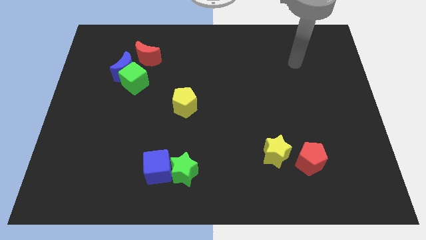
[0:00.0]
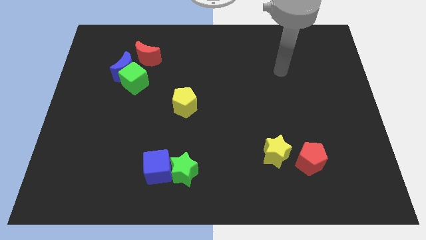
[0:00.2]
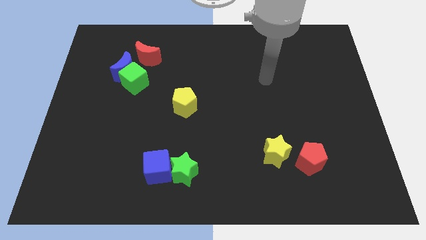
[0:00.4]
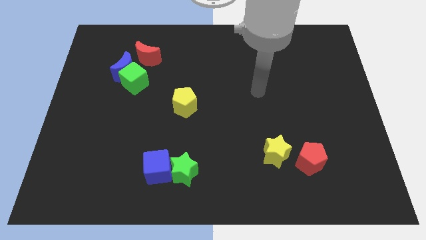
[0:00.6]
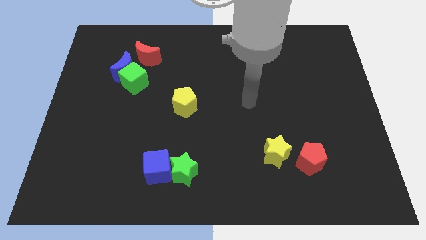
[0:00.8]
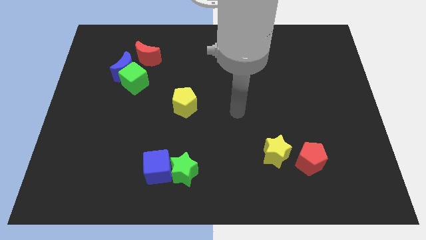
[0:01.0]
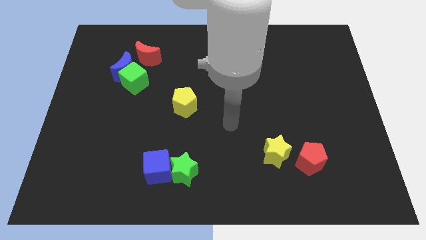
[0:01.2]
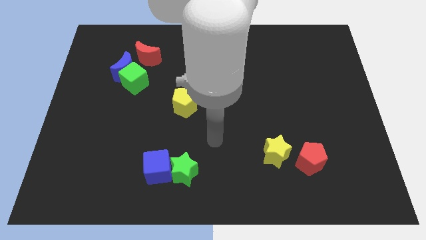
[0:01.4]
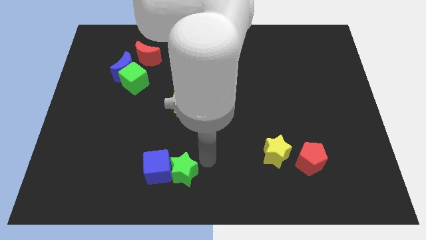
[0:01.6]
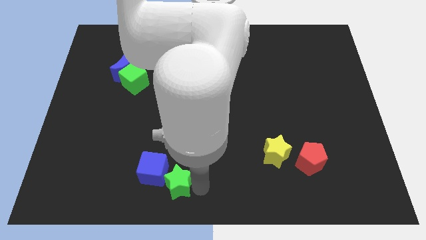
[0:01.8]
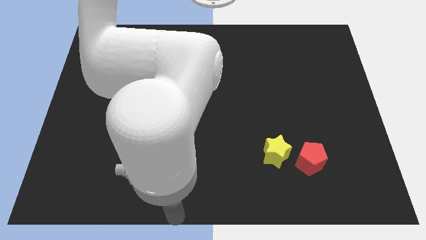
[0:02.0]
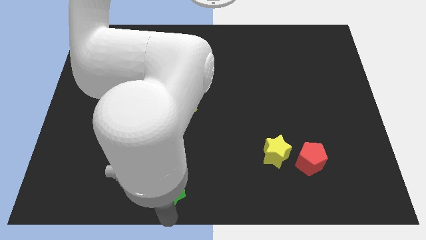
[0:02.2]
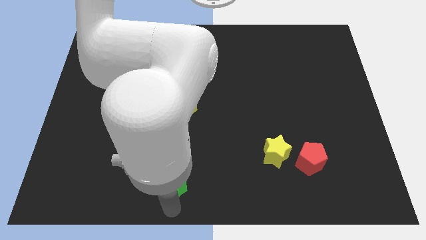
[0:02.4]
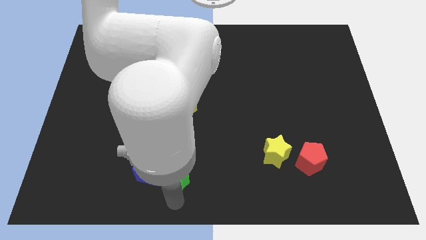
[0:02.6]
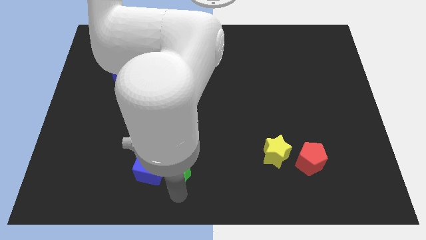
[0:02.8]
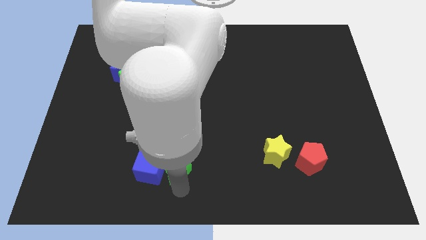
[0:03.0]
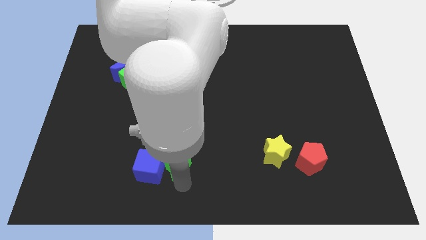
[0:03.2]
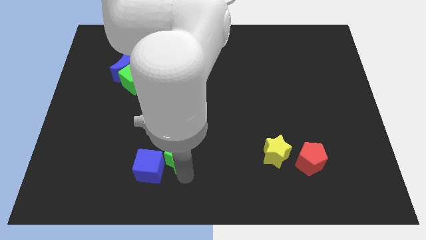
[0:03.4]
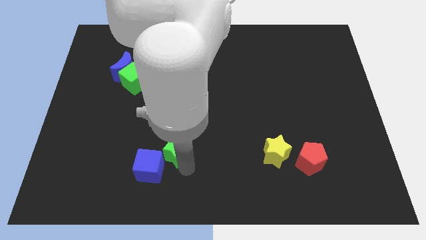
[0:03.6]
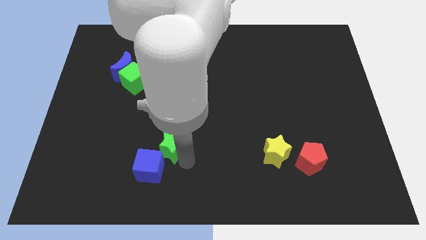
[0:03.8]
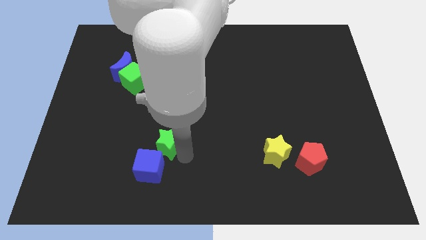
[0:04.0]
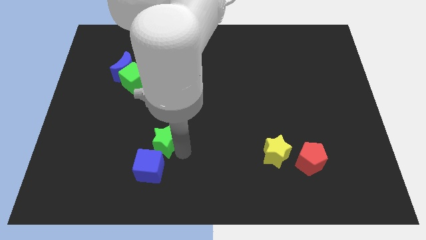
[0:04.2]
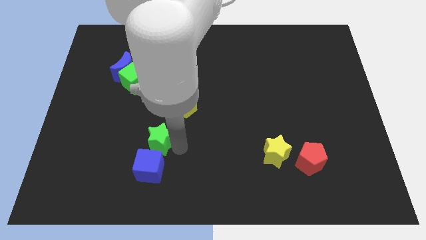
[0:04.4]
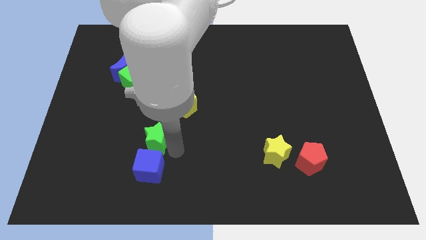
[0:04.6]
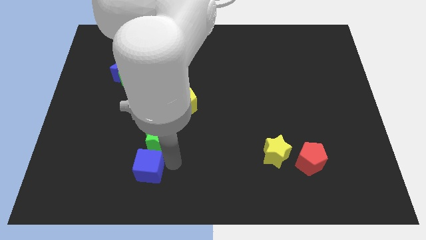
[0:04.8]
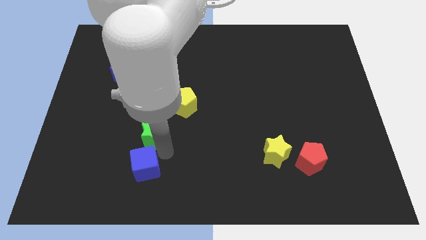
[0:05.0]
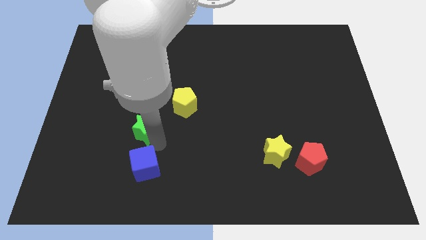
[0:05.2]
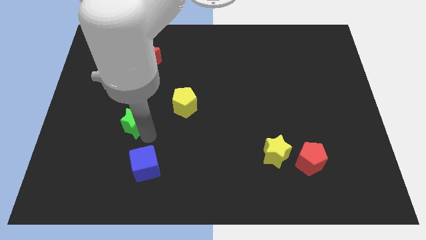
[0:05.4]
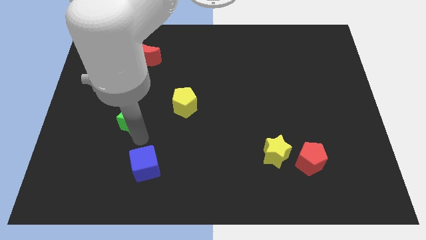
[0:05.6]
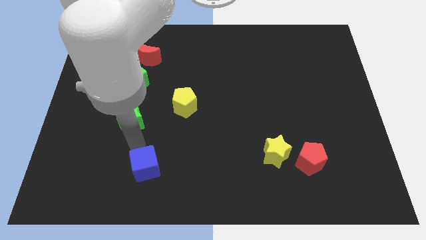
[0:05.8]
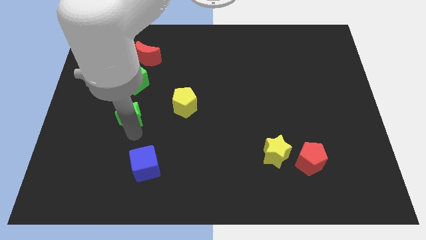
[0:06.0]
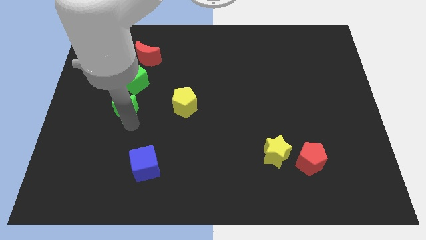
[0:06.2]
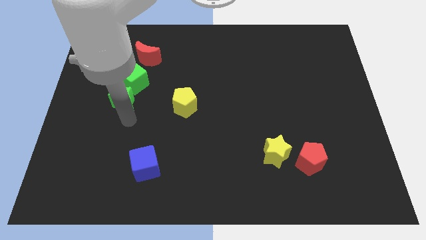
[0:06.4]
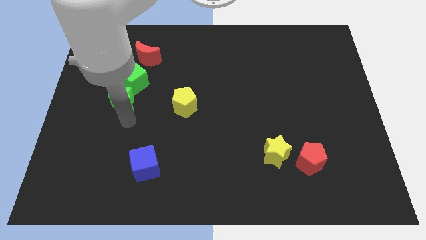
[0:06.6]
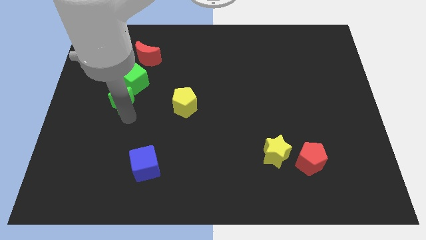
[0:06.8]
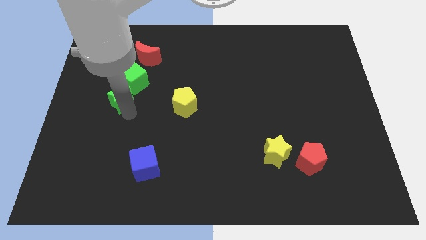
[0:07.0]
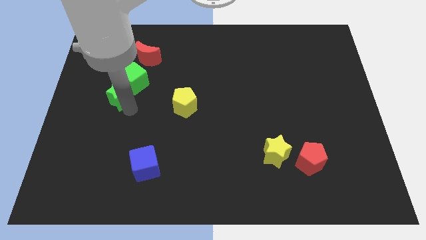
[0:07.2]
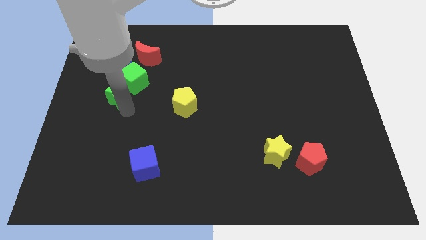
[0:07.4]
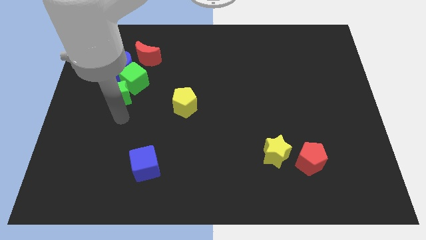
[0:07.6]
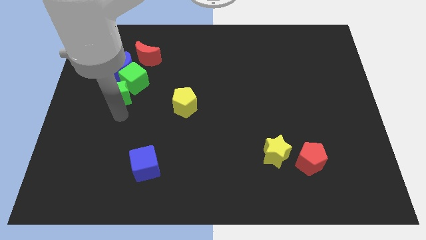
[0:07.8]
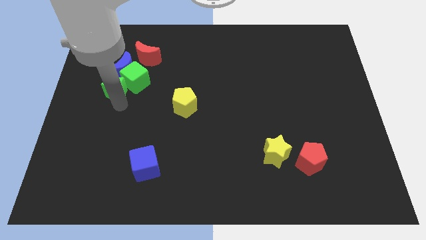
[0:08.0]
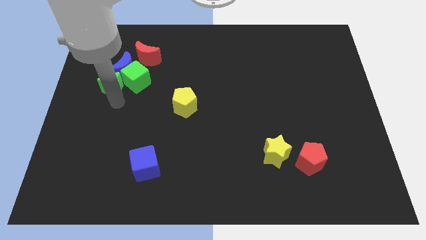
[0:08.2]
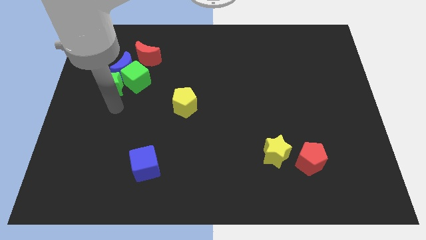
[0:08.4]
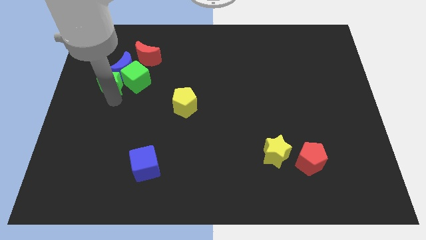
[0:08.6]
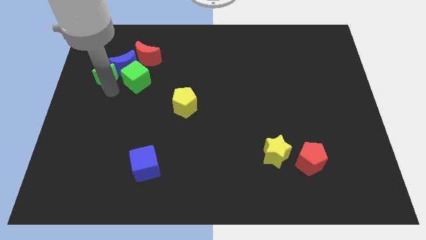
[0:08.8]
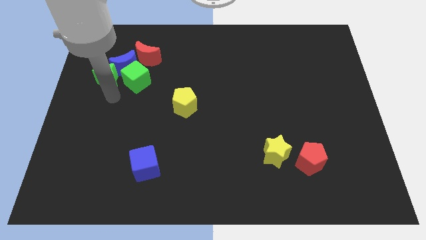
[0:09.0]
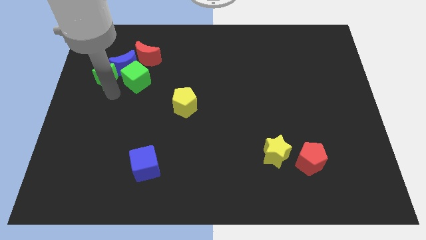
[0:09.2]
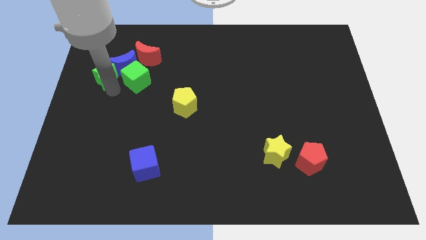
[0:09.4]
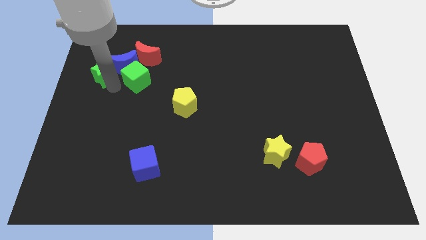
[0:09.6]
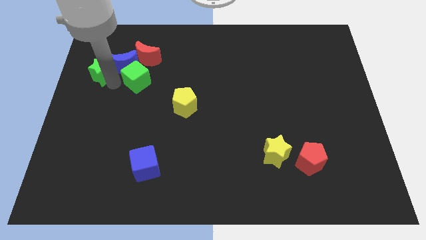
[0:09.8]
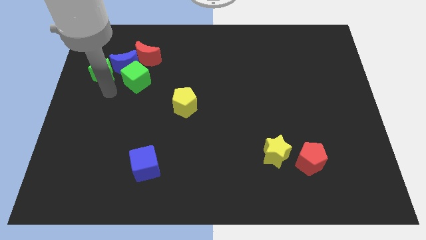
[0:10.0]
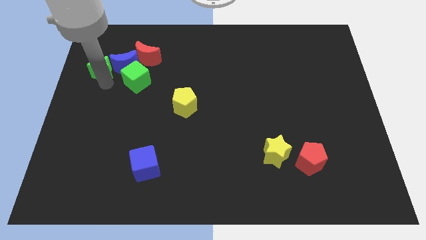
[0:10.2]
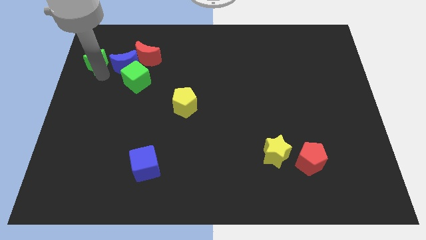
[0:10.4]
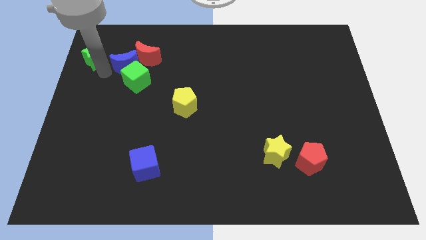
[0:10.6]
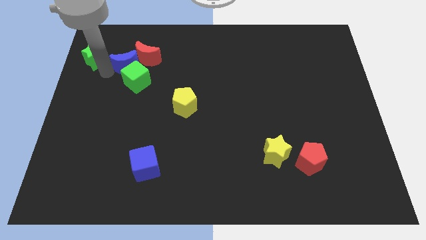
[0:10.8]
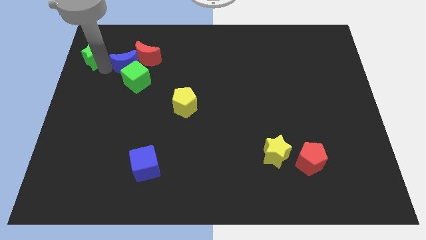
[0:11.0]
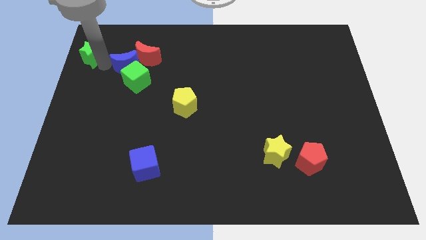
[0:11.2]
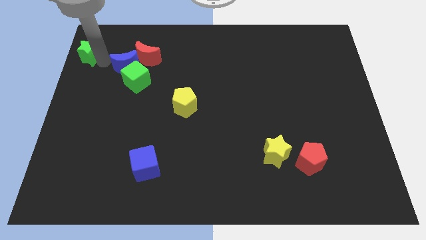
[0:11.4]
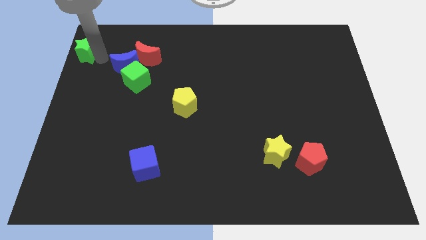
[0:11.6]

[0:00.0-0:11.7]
slide the green star to the top left corner

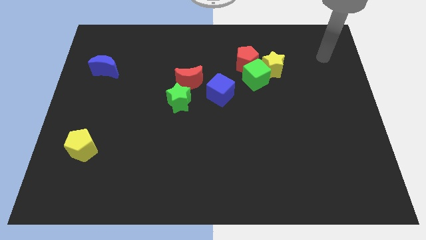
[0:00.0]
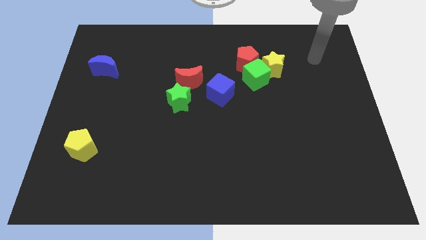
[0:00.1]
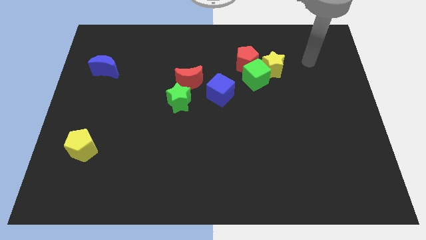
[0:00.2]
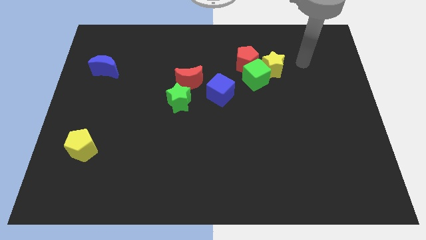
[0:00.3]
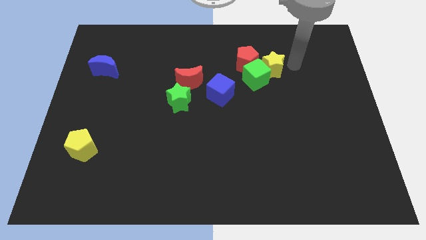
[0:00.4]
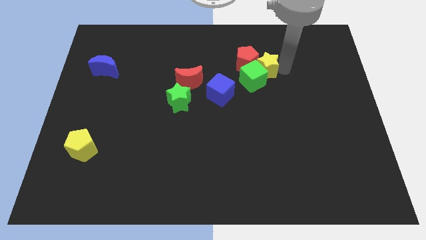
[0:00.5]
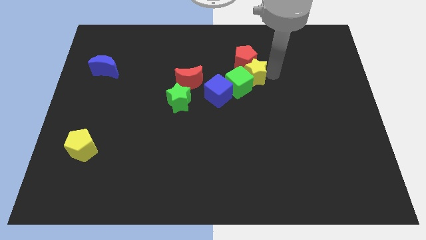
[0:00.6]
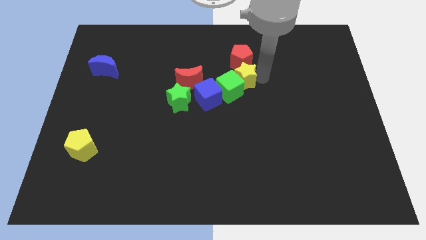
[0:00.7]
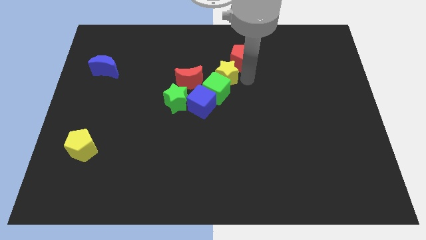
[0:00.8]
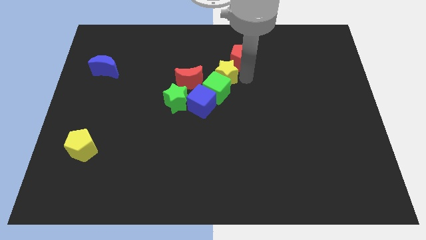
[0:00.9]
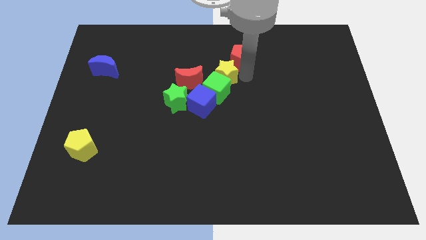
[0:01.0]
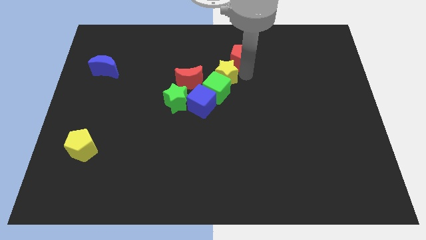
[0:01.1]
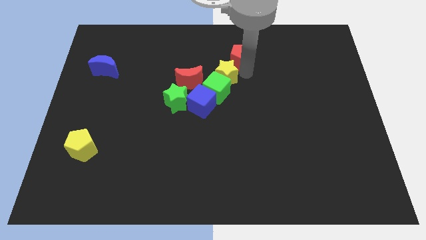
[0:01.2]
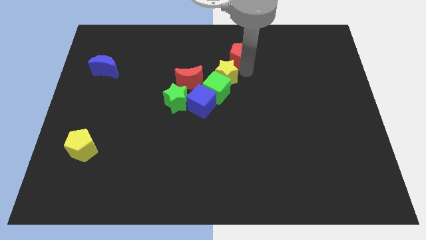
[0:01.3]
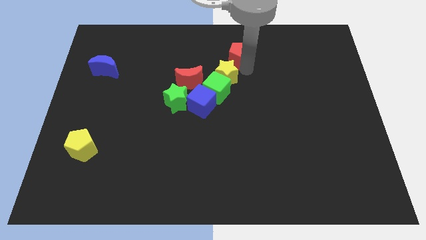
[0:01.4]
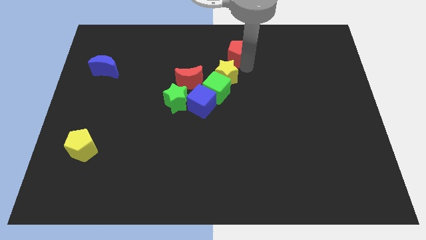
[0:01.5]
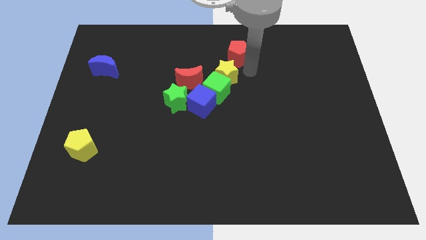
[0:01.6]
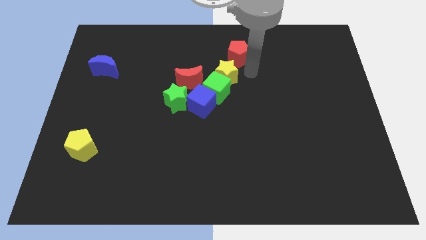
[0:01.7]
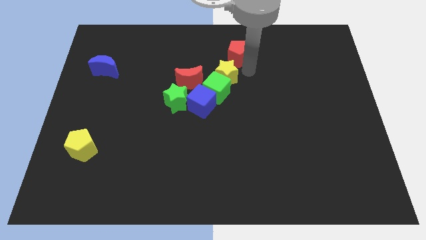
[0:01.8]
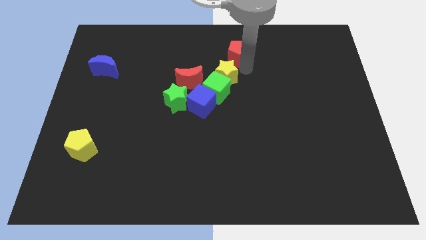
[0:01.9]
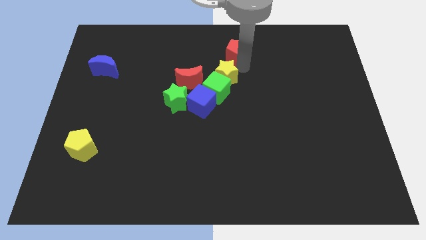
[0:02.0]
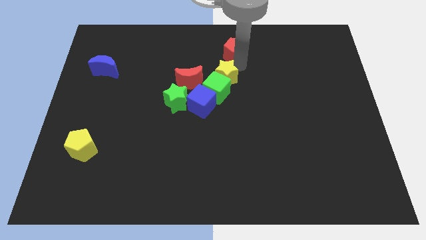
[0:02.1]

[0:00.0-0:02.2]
push the red pentagon to the top
